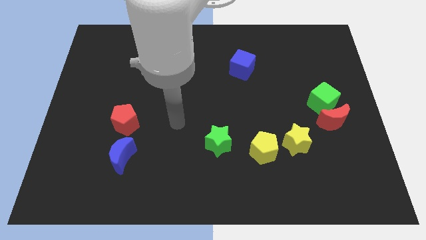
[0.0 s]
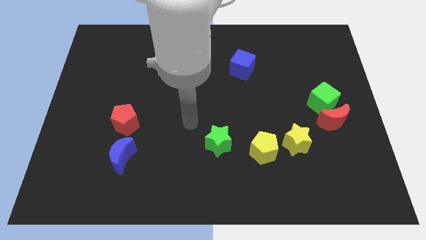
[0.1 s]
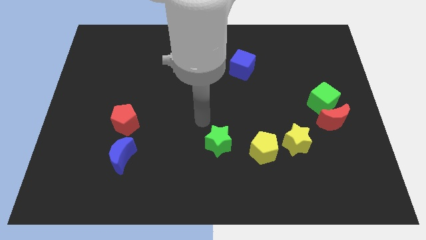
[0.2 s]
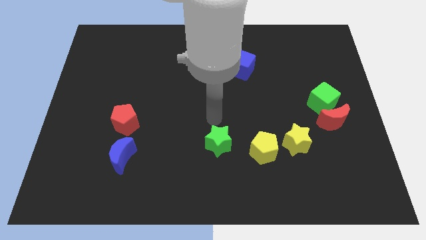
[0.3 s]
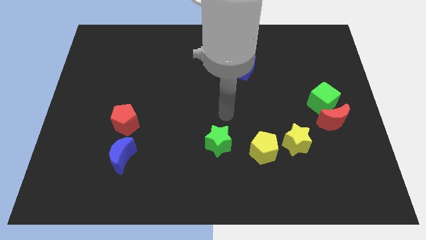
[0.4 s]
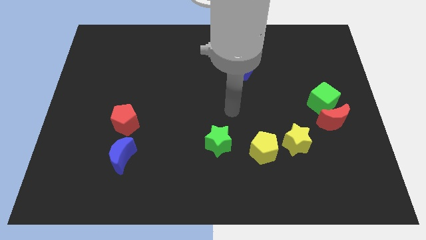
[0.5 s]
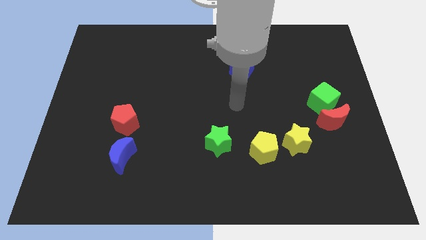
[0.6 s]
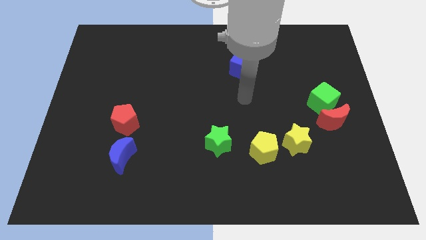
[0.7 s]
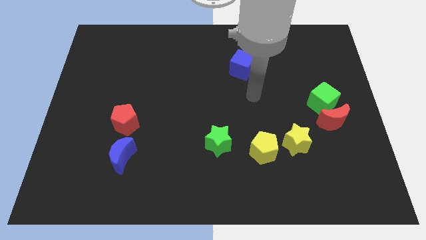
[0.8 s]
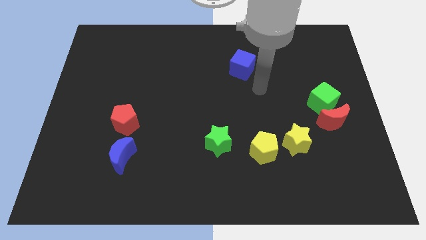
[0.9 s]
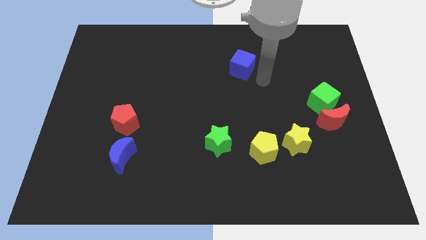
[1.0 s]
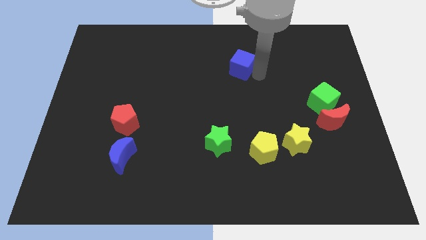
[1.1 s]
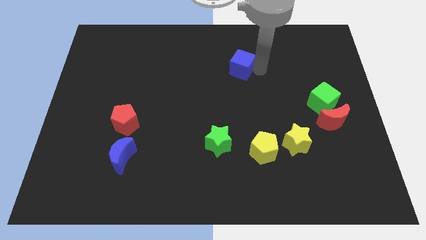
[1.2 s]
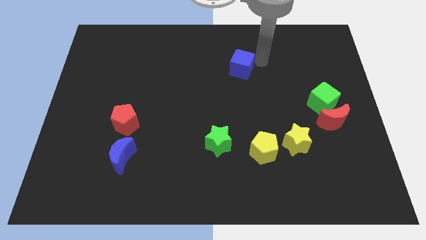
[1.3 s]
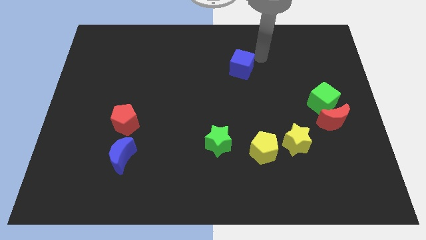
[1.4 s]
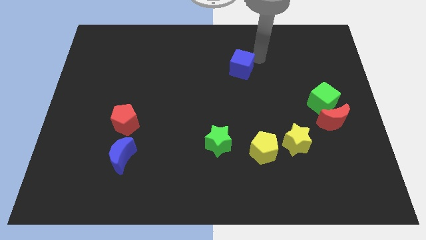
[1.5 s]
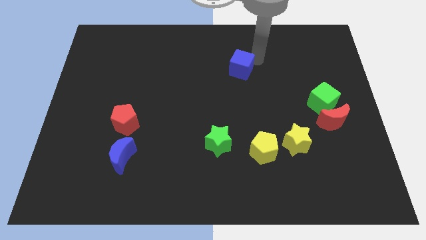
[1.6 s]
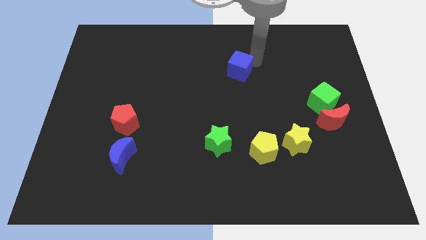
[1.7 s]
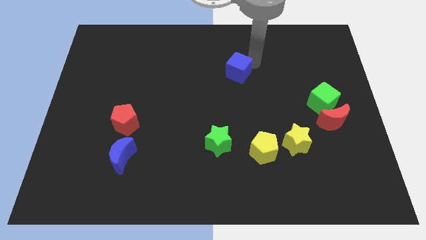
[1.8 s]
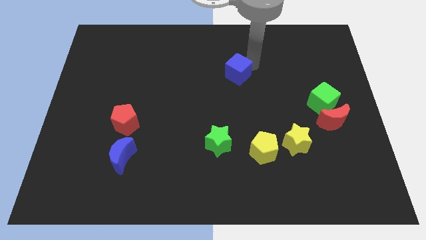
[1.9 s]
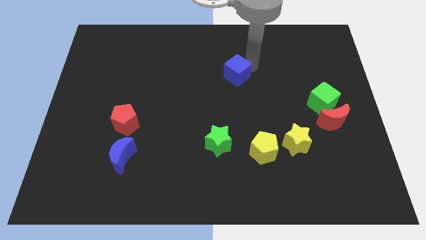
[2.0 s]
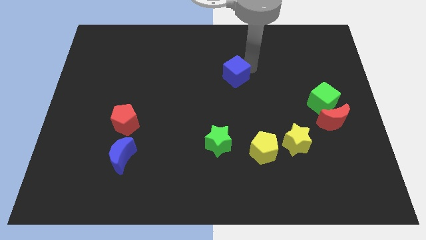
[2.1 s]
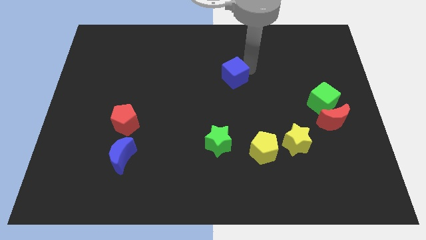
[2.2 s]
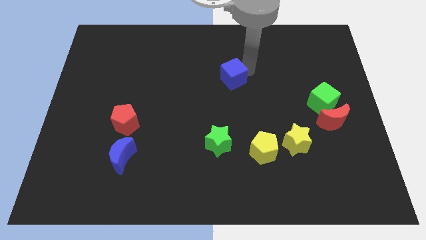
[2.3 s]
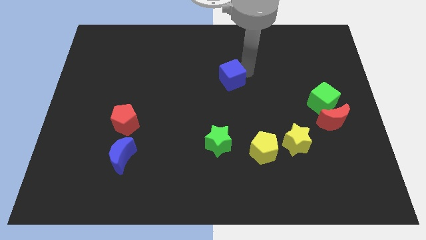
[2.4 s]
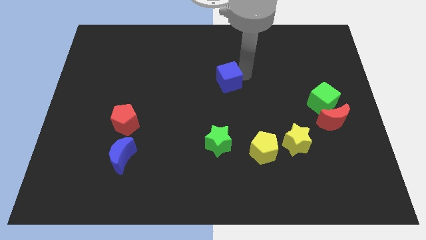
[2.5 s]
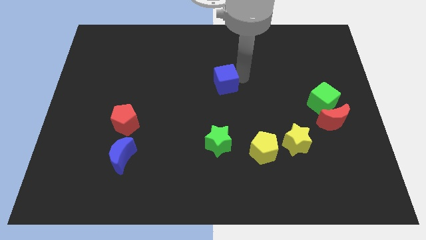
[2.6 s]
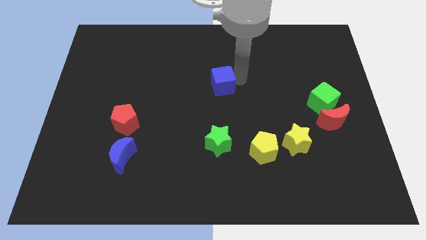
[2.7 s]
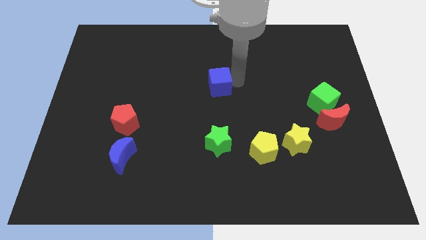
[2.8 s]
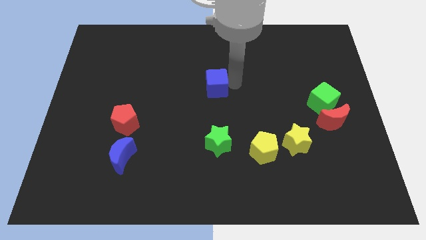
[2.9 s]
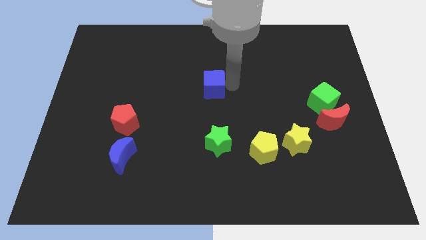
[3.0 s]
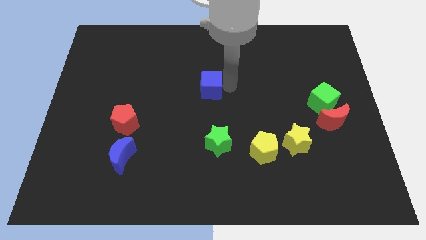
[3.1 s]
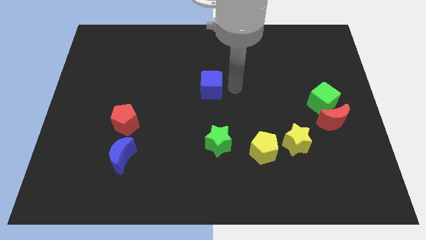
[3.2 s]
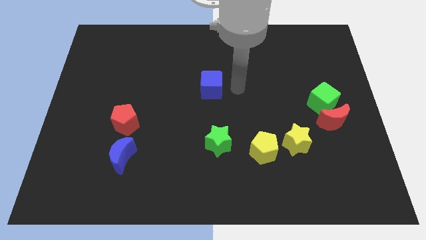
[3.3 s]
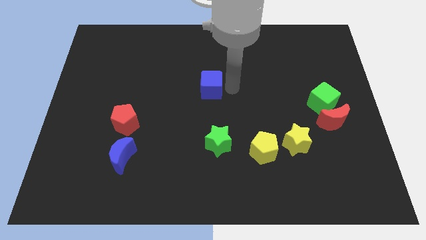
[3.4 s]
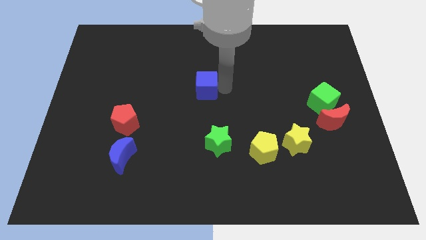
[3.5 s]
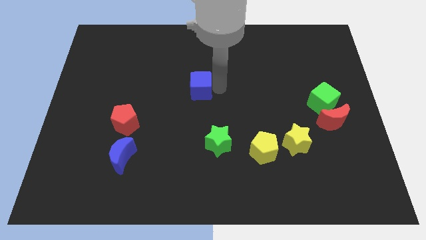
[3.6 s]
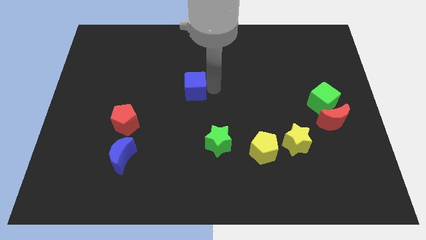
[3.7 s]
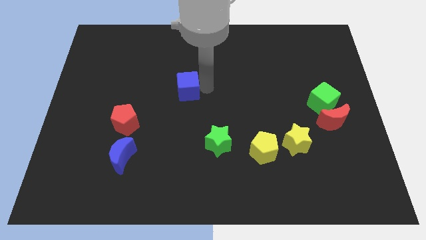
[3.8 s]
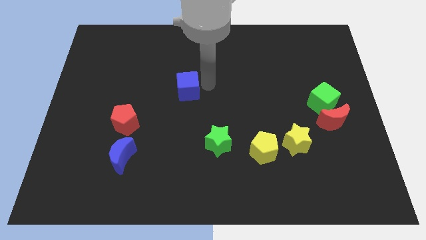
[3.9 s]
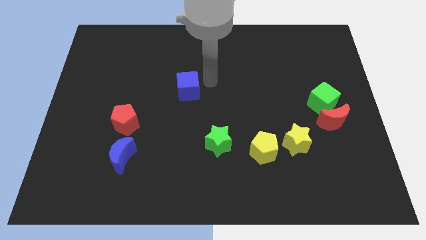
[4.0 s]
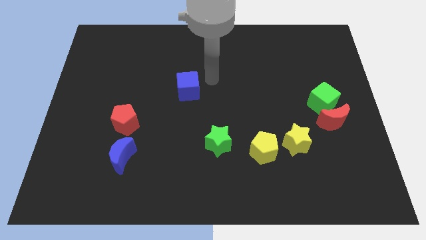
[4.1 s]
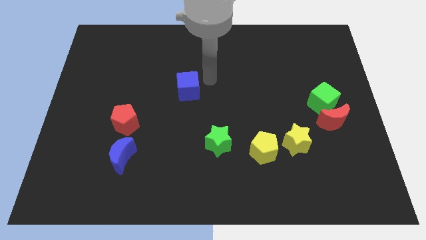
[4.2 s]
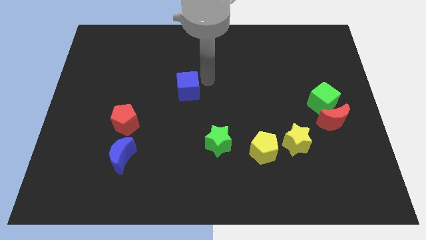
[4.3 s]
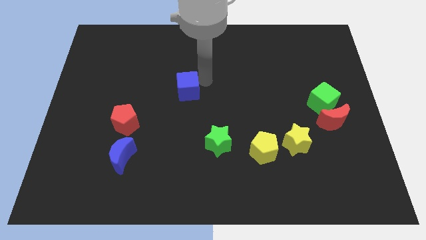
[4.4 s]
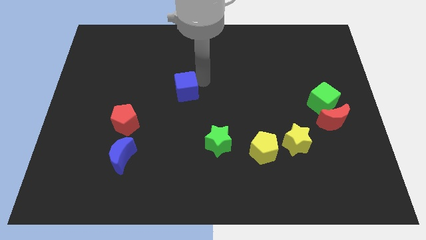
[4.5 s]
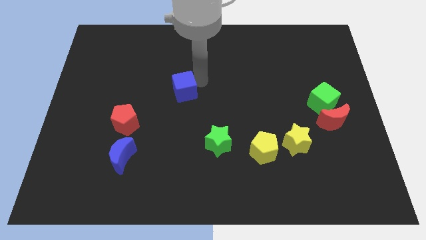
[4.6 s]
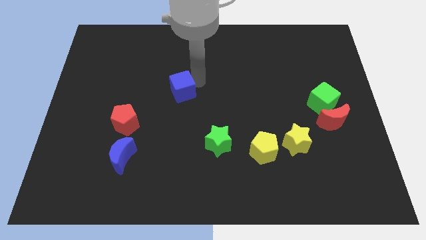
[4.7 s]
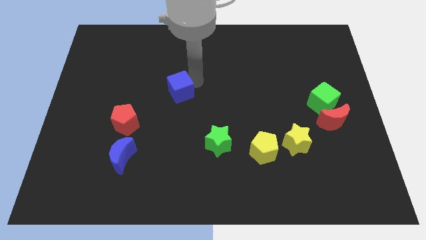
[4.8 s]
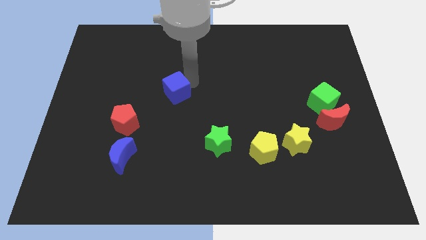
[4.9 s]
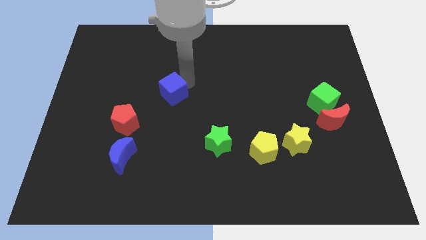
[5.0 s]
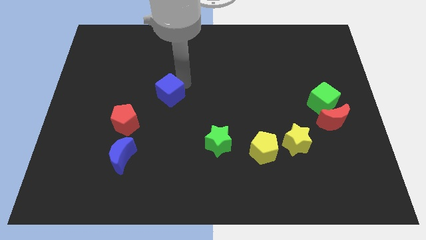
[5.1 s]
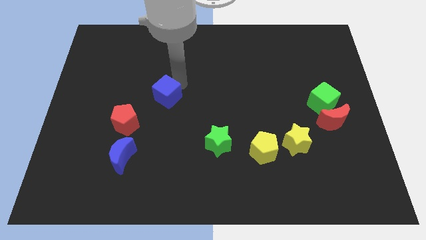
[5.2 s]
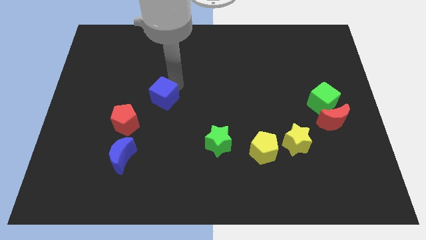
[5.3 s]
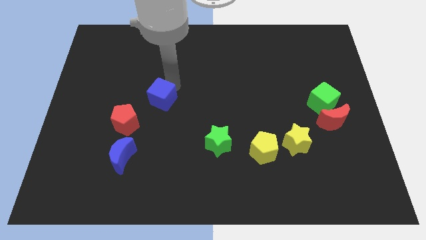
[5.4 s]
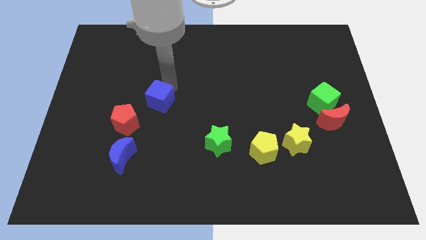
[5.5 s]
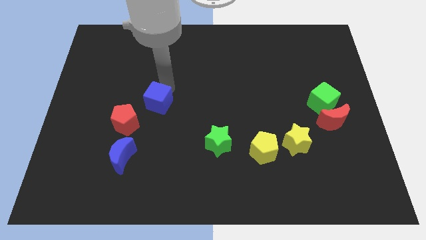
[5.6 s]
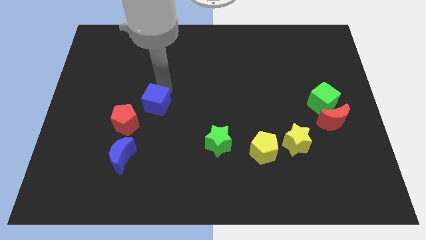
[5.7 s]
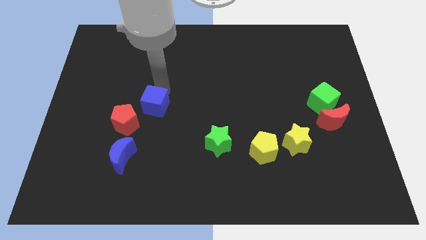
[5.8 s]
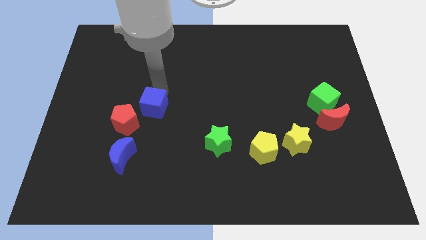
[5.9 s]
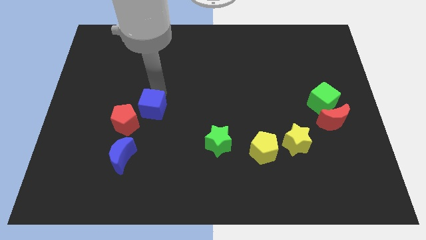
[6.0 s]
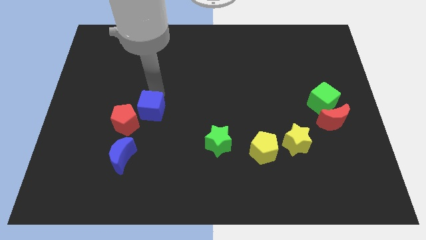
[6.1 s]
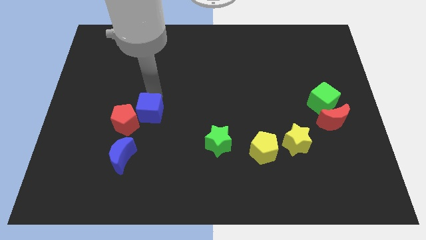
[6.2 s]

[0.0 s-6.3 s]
slide the blue cube to the red pentagon

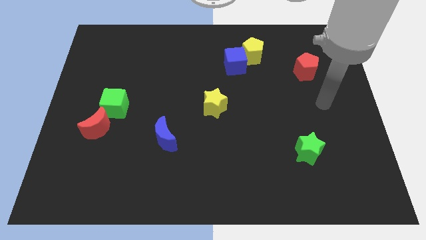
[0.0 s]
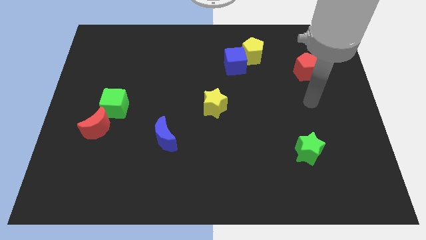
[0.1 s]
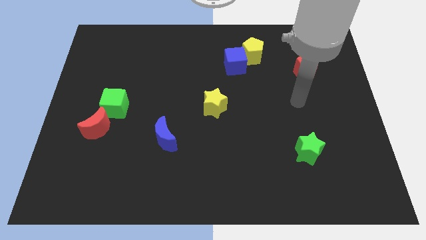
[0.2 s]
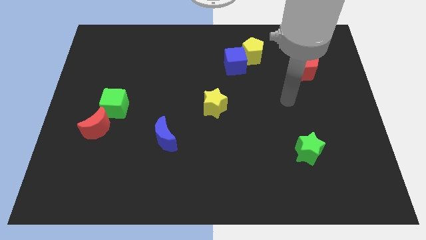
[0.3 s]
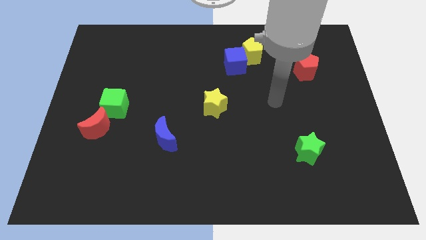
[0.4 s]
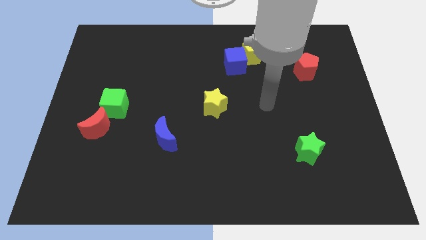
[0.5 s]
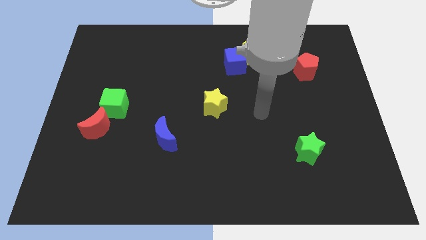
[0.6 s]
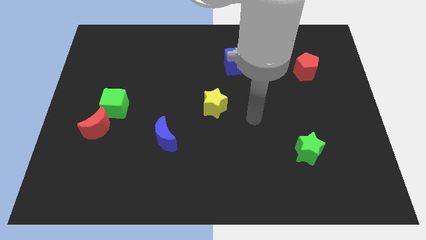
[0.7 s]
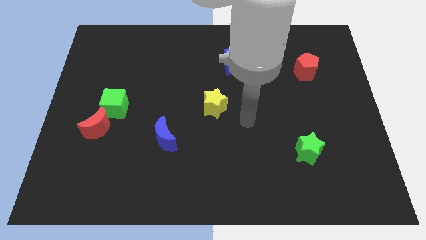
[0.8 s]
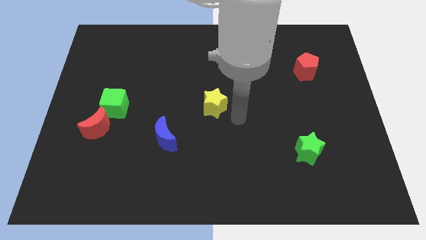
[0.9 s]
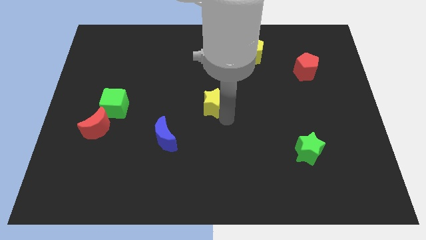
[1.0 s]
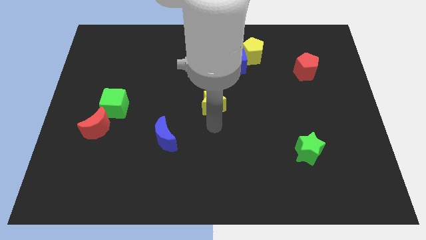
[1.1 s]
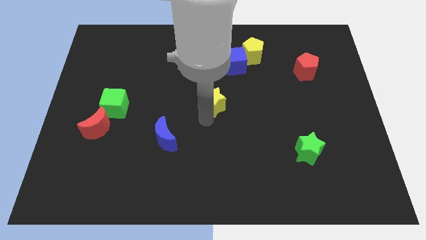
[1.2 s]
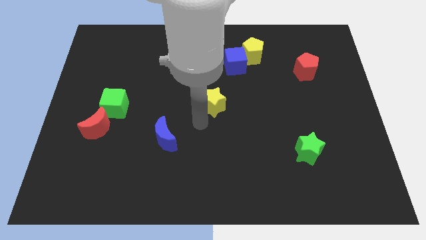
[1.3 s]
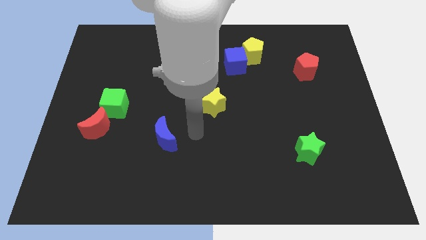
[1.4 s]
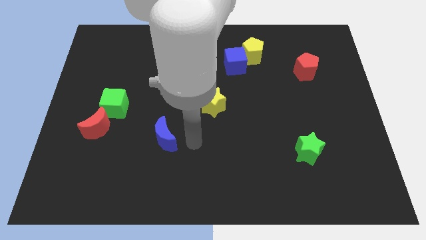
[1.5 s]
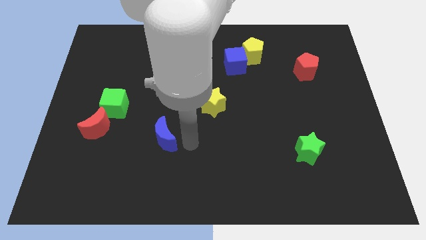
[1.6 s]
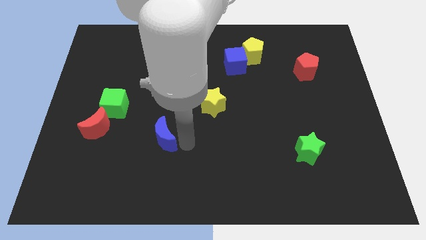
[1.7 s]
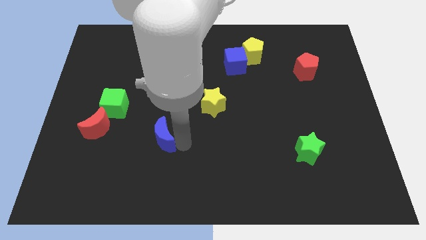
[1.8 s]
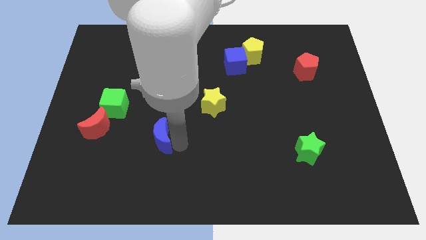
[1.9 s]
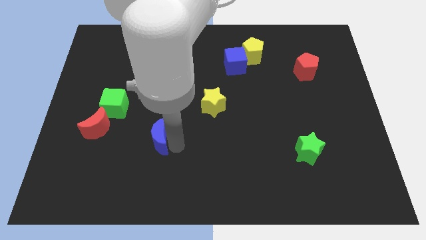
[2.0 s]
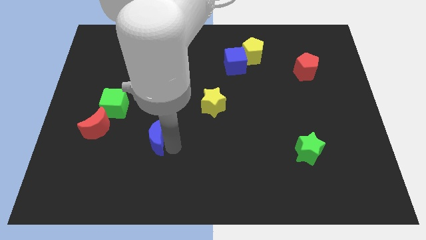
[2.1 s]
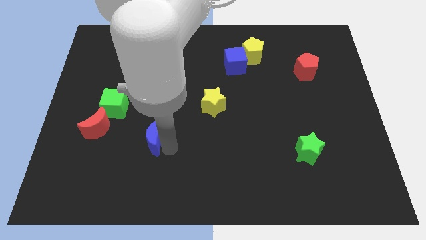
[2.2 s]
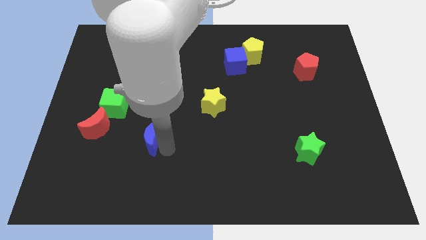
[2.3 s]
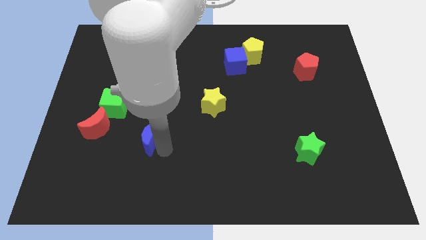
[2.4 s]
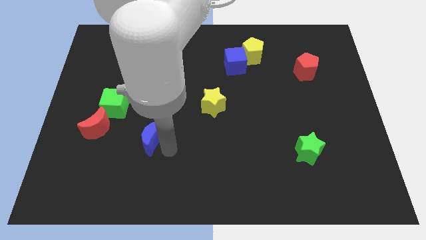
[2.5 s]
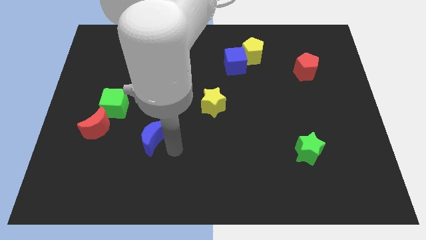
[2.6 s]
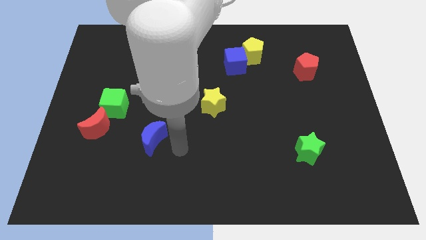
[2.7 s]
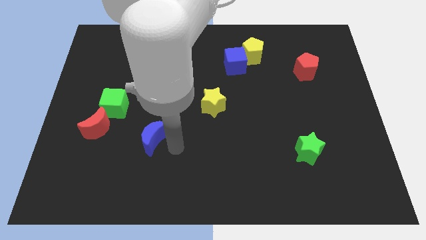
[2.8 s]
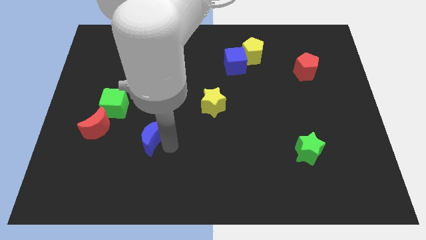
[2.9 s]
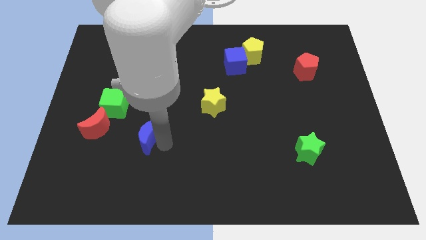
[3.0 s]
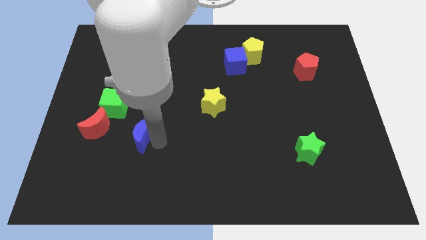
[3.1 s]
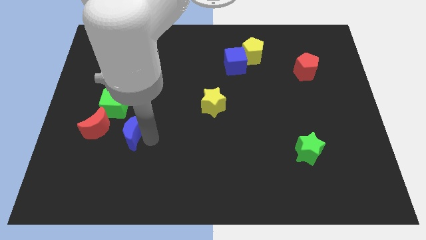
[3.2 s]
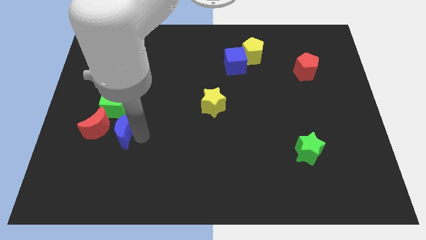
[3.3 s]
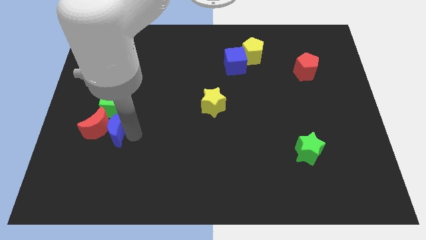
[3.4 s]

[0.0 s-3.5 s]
move the blue moon next to the red moon
